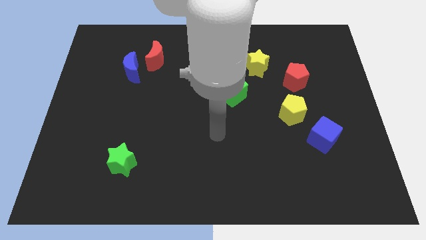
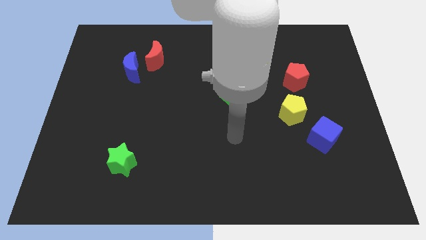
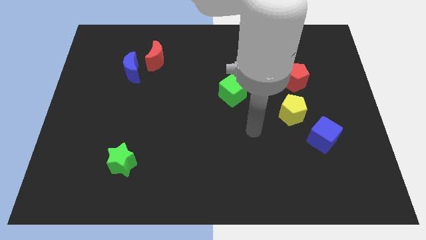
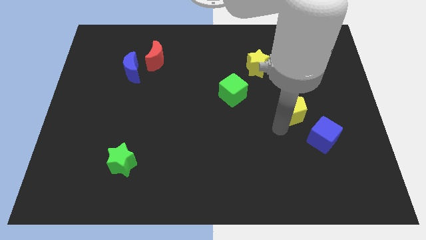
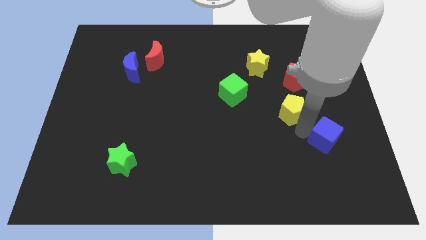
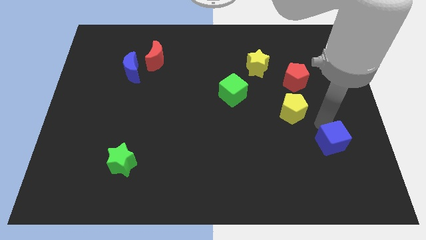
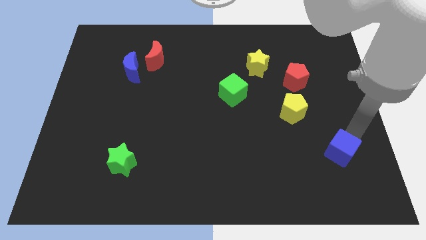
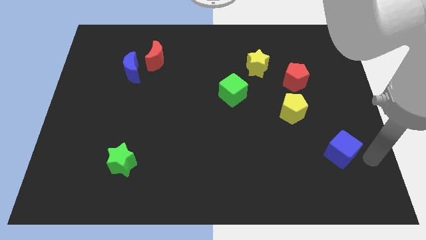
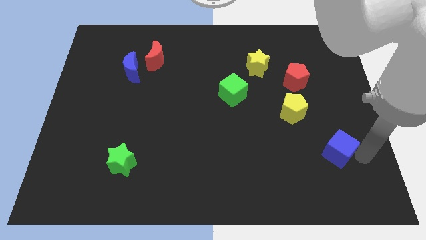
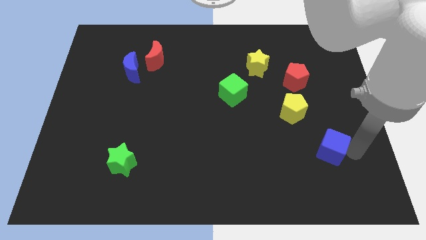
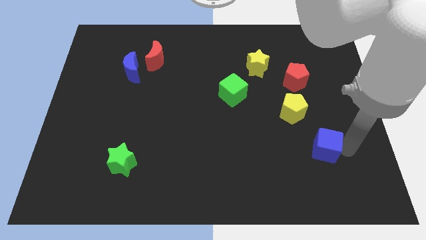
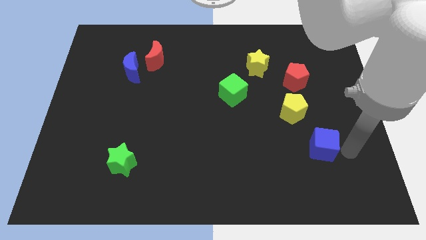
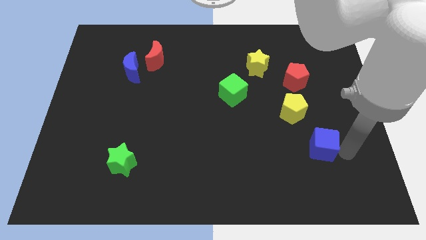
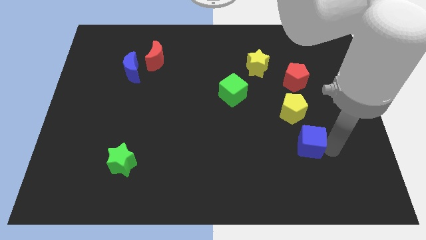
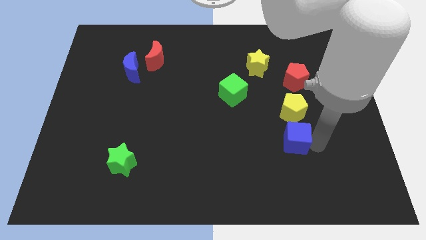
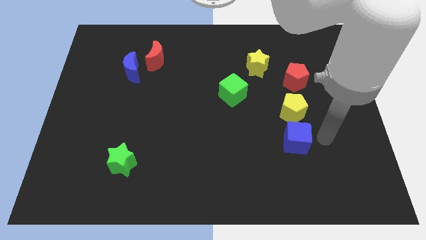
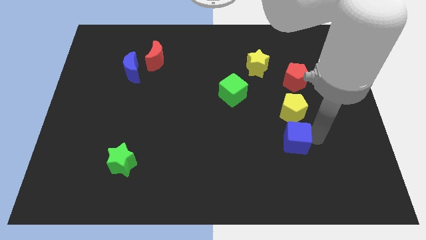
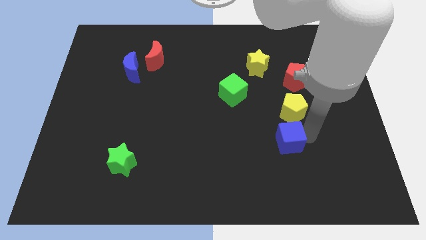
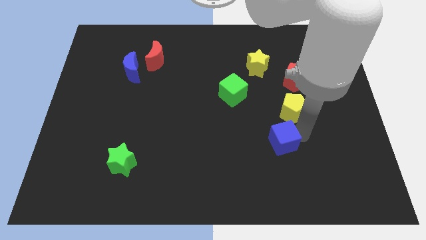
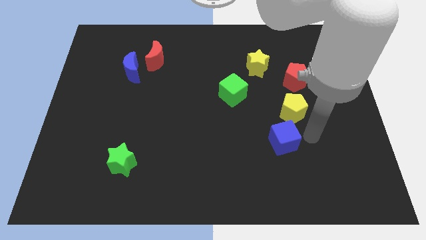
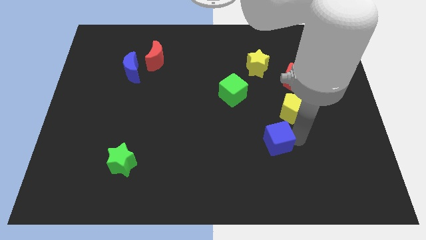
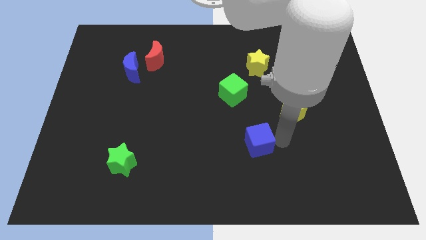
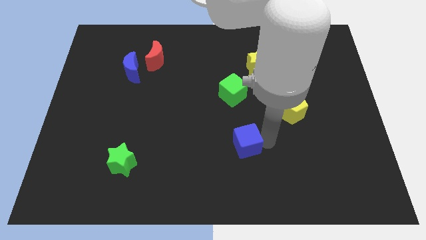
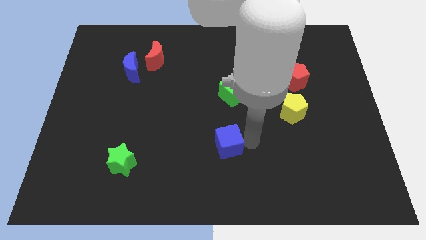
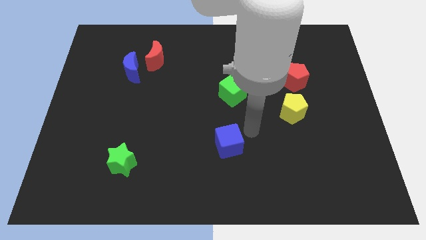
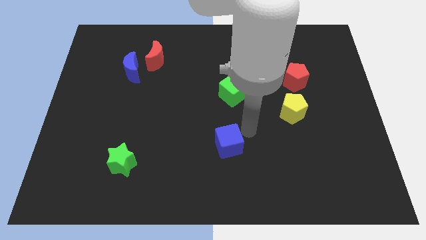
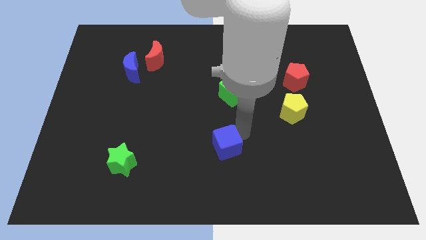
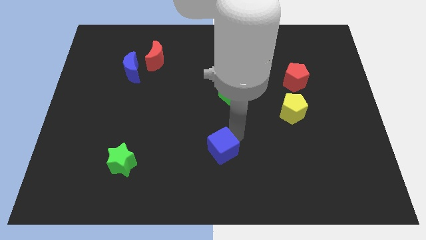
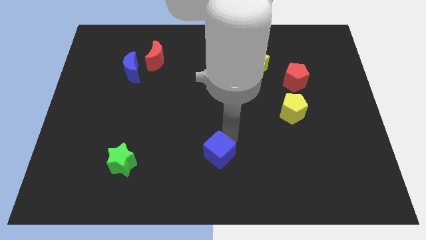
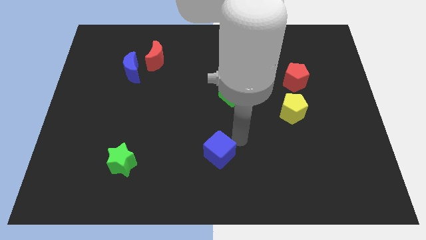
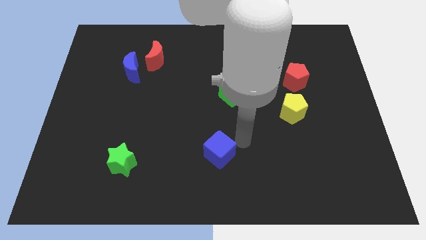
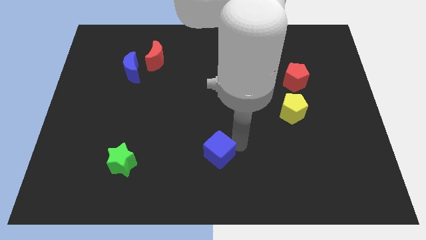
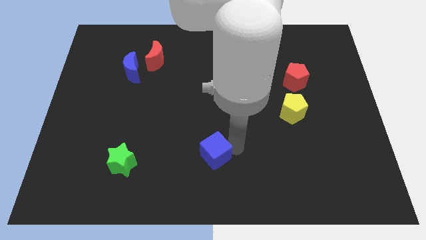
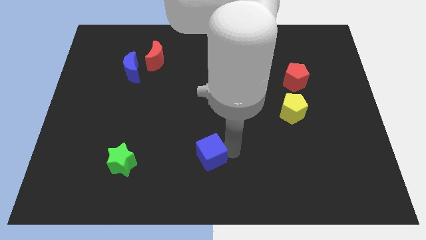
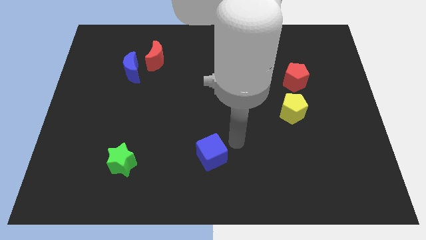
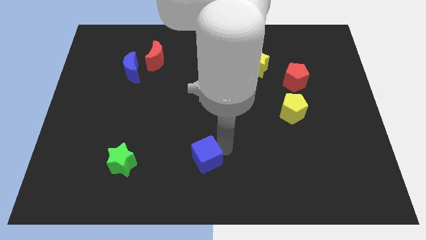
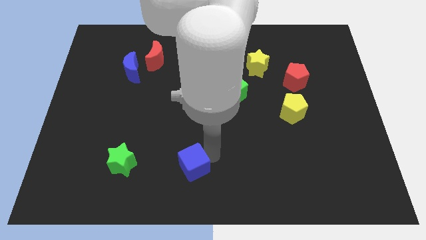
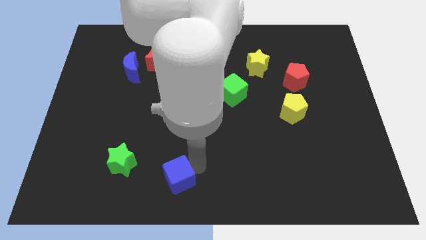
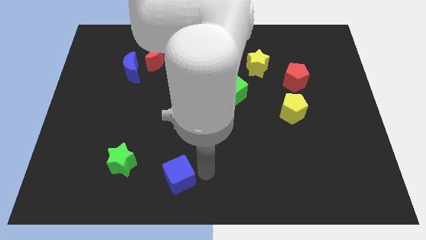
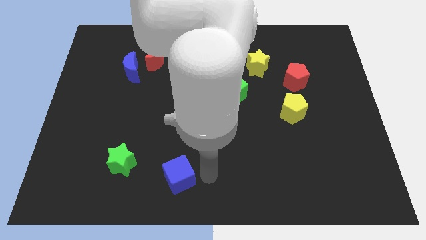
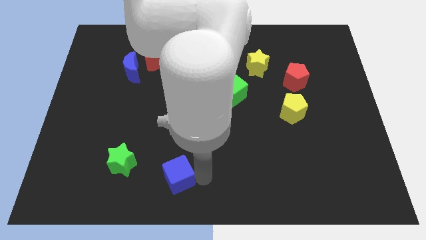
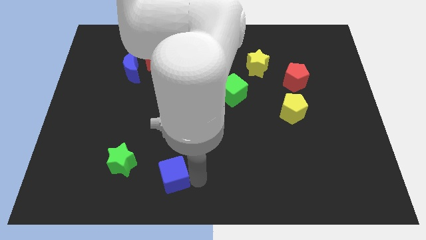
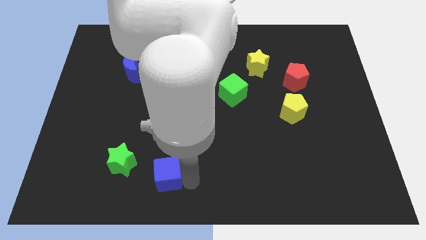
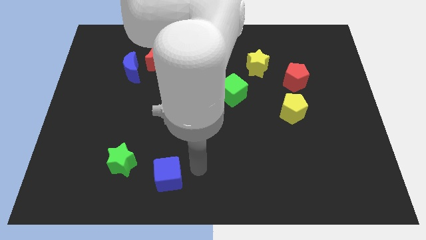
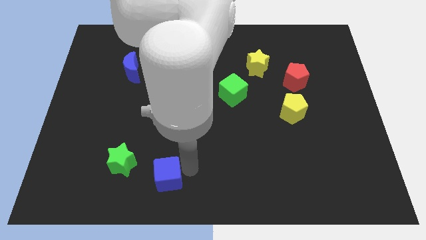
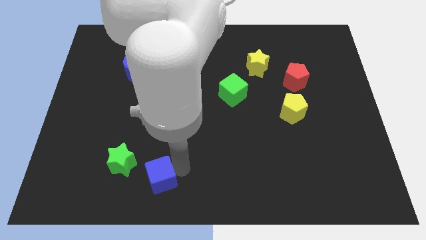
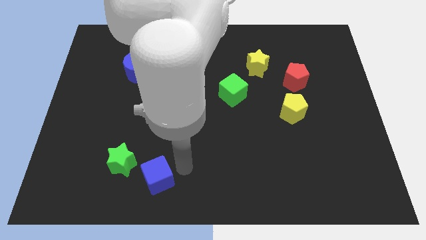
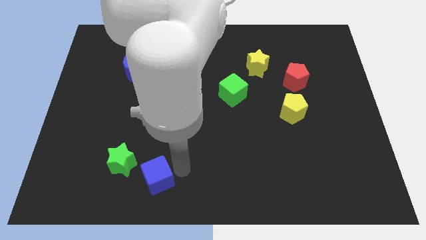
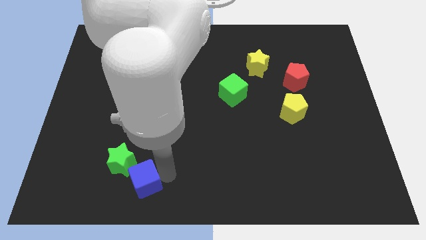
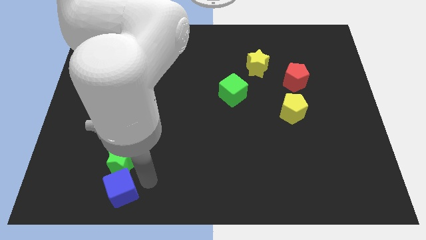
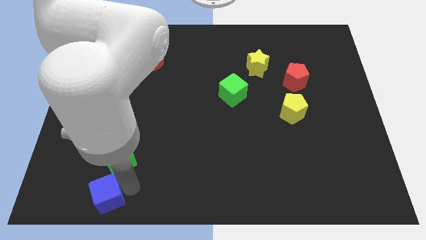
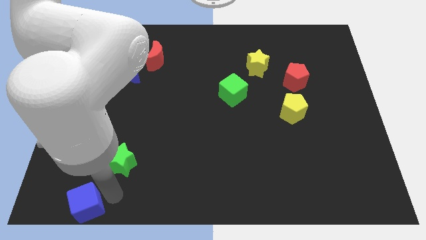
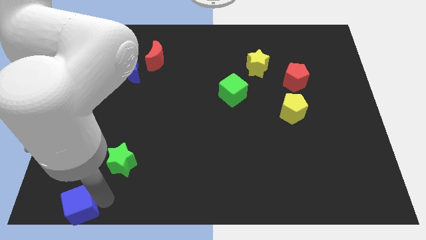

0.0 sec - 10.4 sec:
slide the blue cube to the bottom left of the board

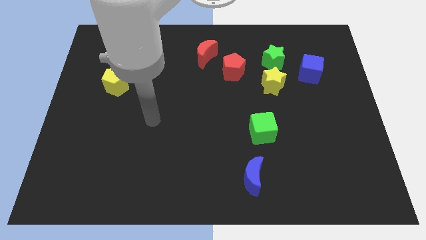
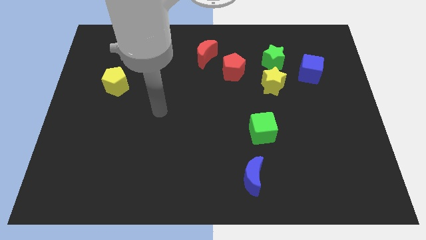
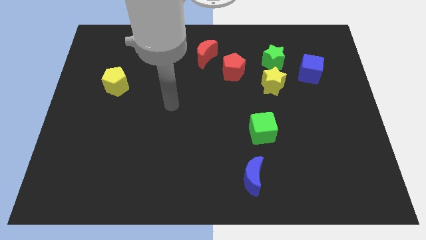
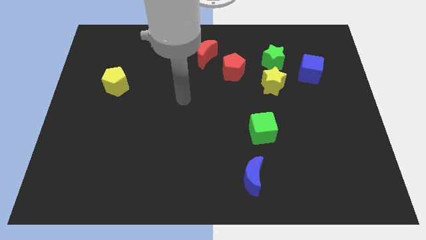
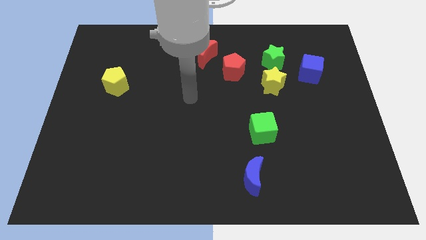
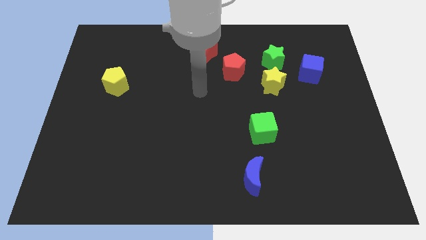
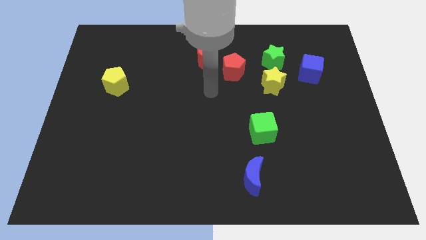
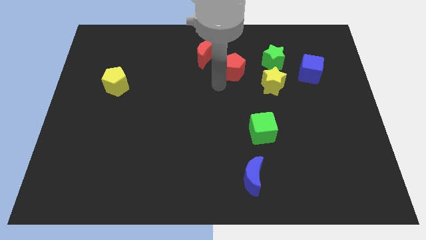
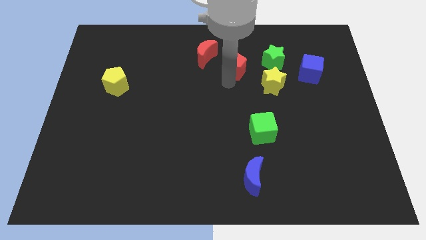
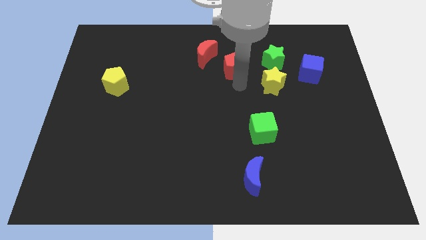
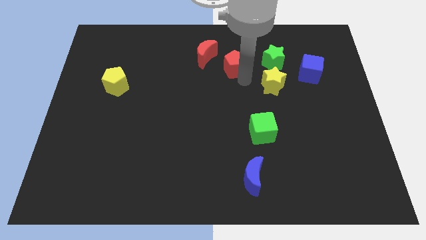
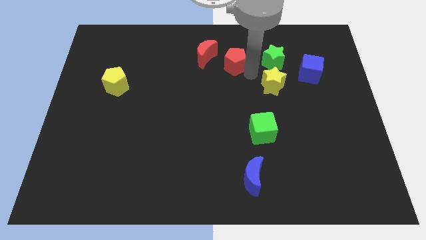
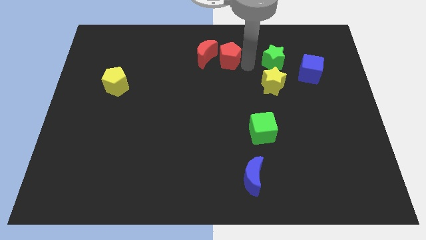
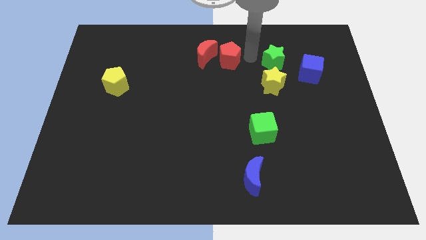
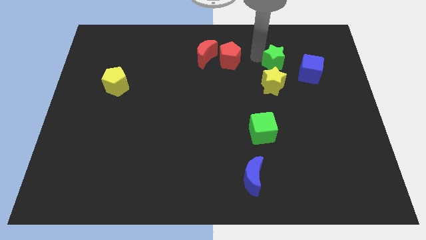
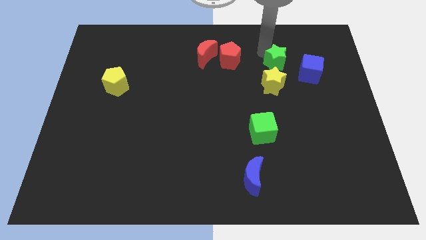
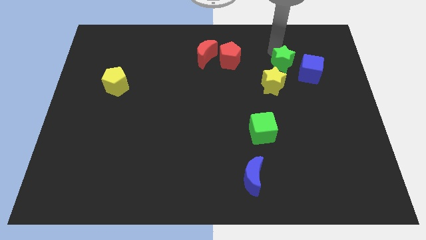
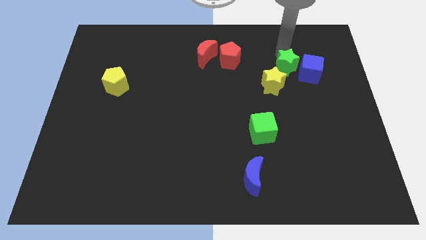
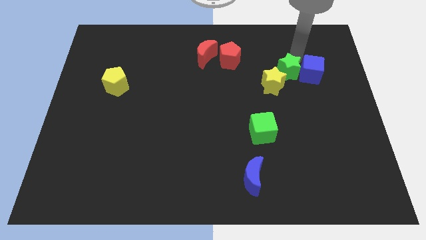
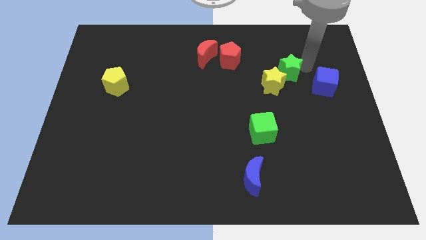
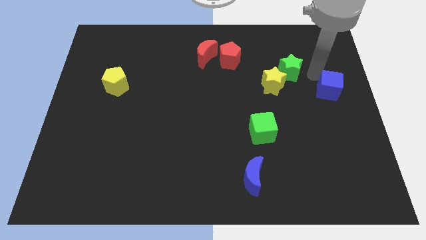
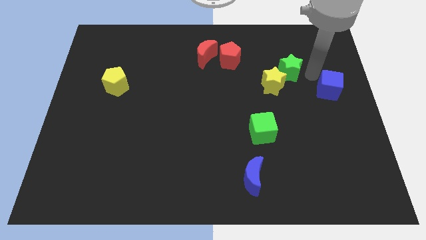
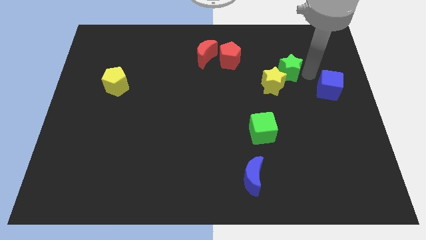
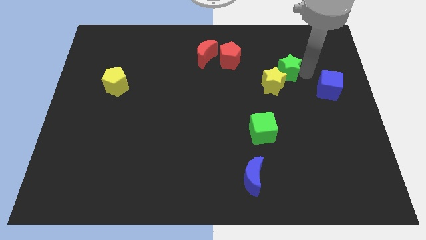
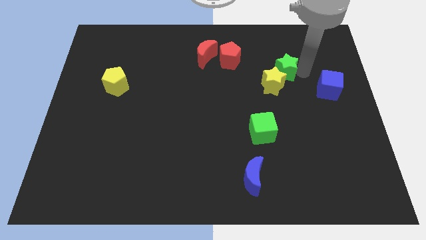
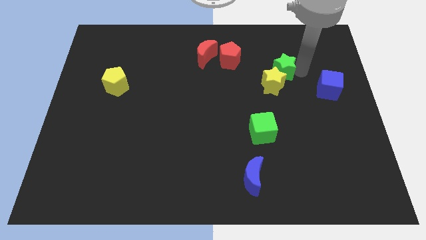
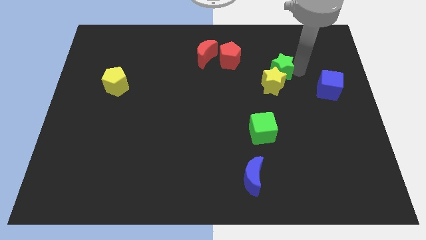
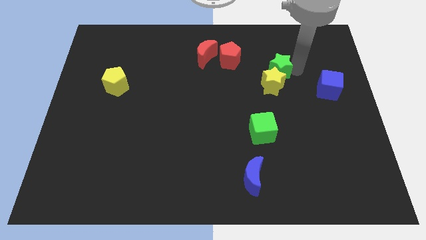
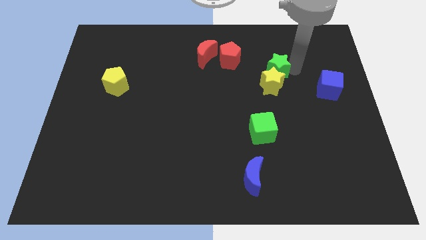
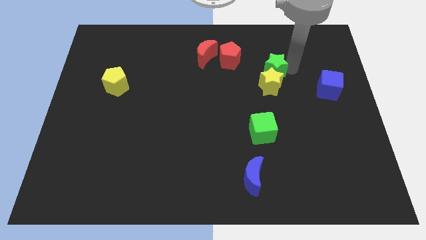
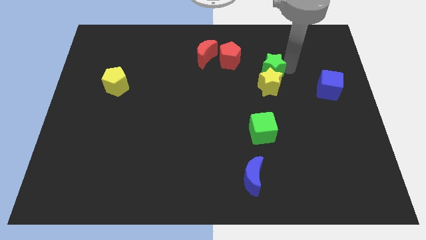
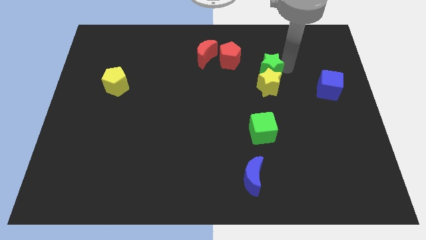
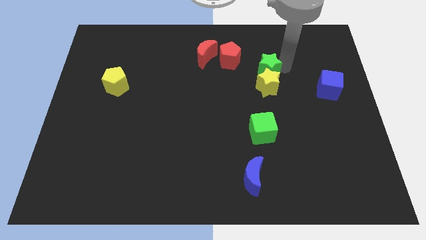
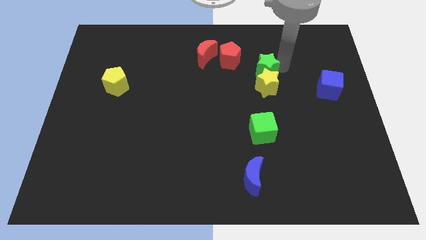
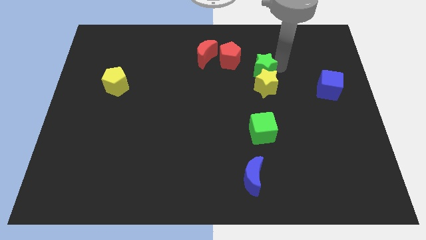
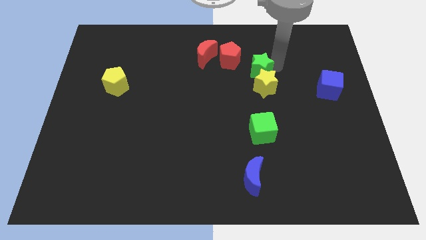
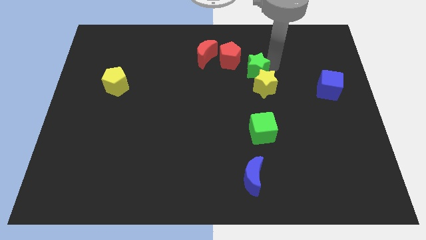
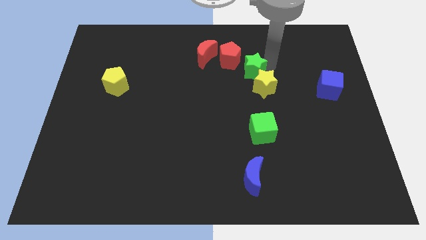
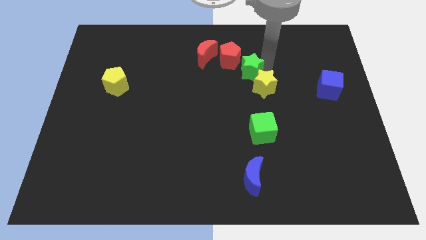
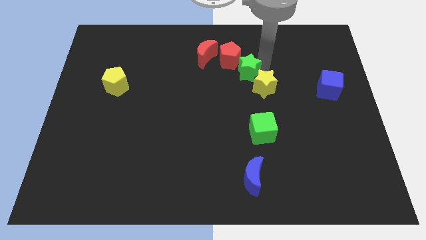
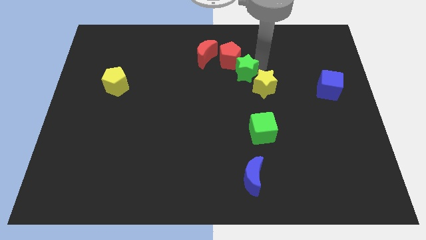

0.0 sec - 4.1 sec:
put the green star to the middle
